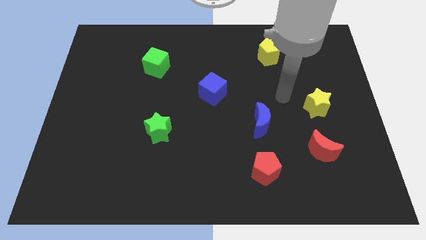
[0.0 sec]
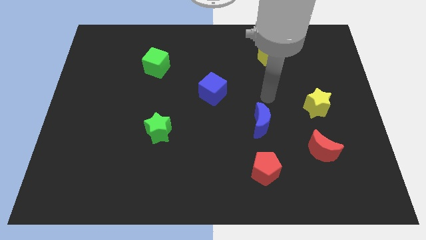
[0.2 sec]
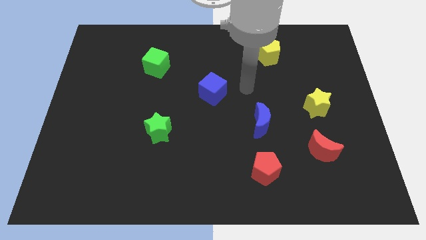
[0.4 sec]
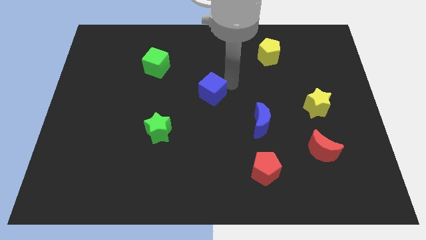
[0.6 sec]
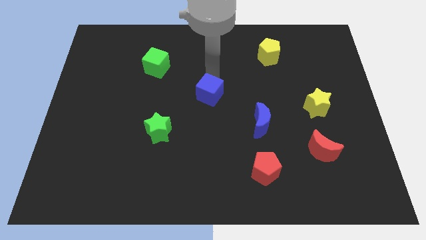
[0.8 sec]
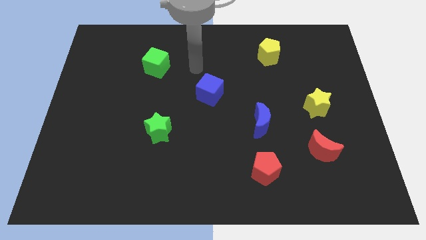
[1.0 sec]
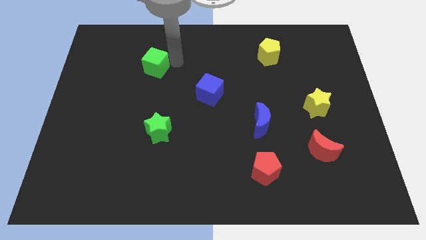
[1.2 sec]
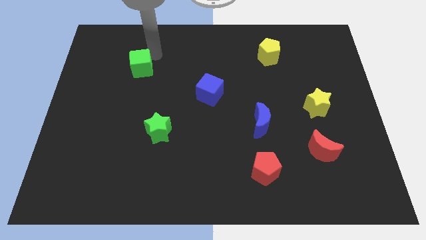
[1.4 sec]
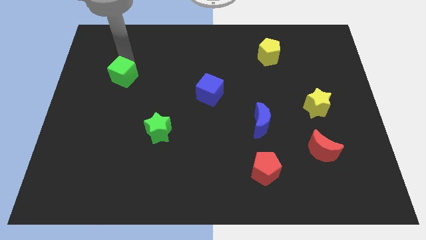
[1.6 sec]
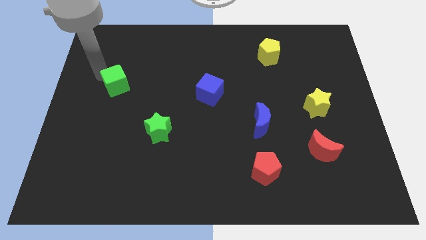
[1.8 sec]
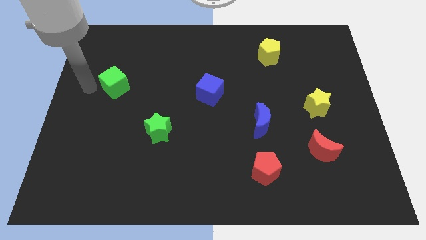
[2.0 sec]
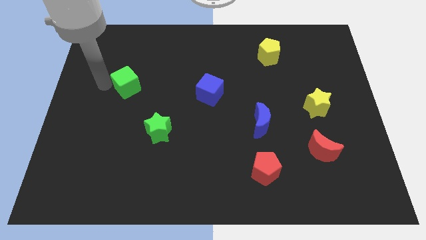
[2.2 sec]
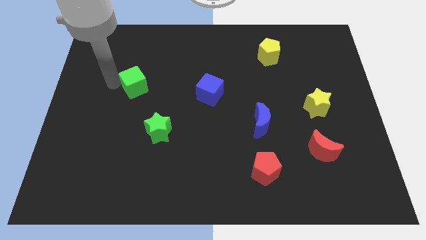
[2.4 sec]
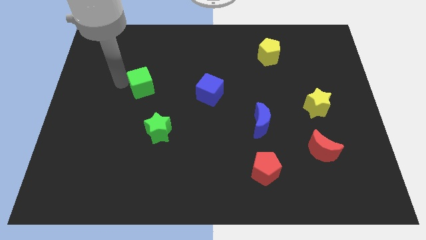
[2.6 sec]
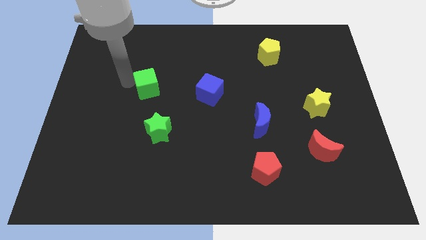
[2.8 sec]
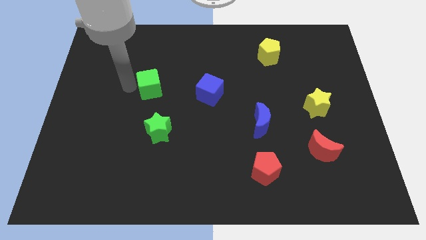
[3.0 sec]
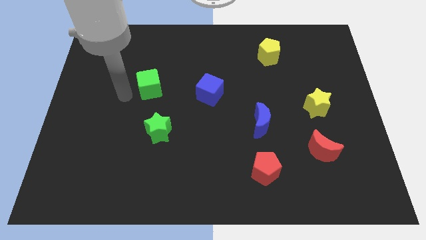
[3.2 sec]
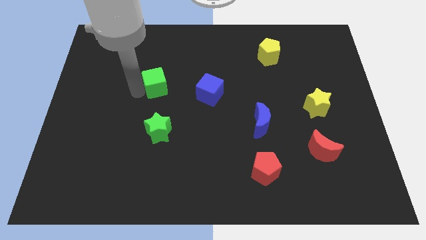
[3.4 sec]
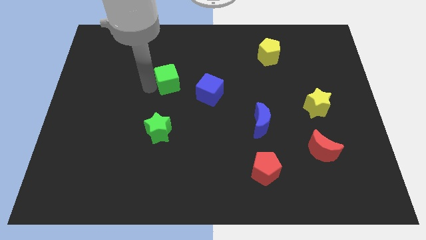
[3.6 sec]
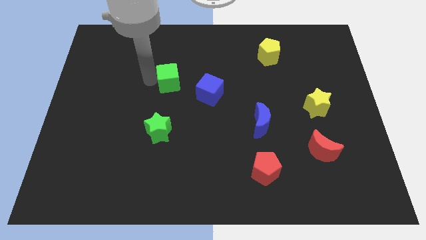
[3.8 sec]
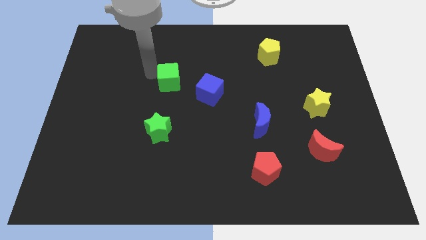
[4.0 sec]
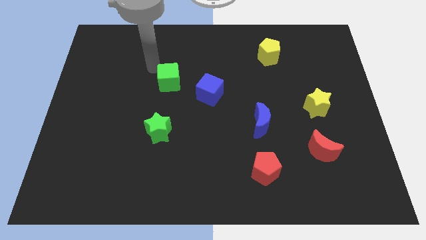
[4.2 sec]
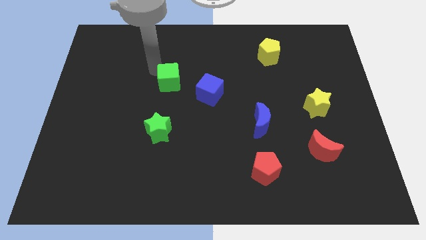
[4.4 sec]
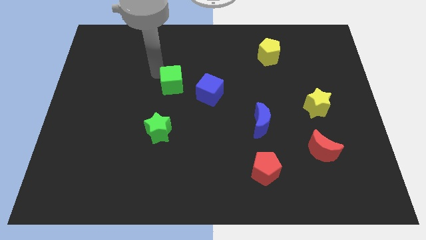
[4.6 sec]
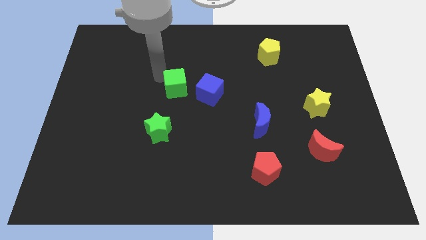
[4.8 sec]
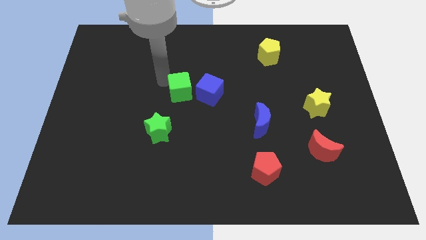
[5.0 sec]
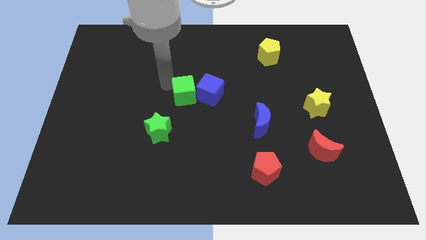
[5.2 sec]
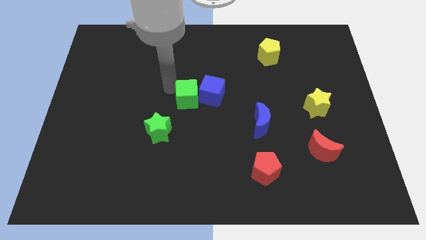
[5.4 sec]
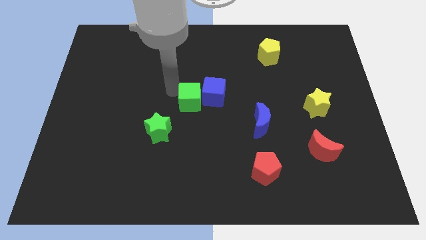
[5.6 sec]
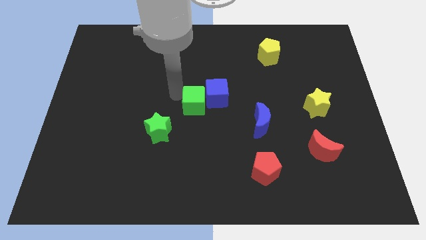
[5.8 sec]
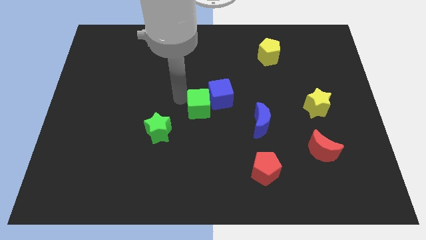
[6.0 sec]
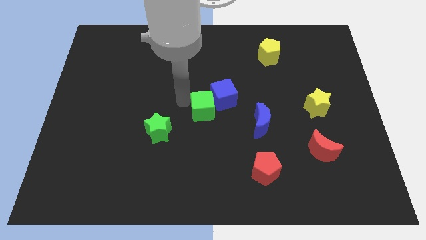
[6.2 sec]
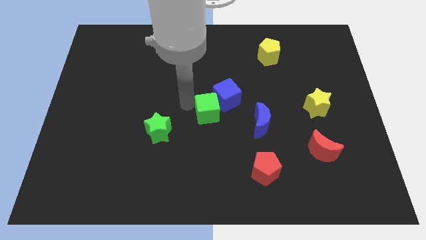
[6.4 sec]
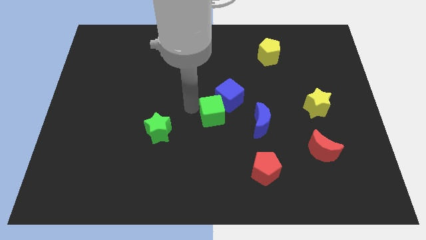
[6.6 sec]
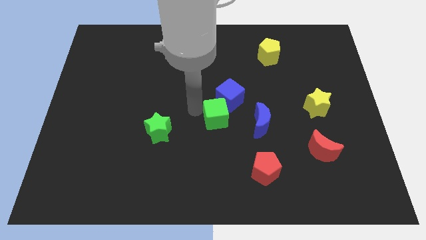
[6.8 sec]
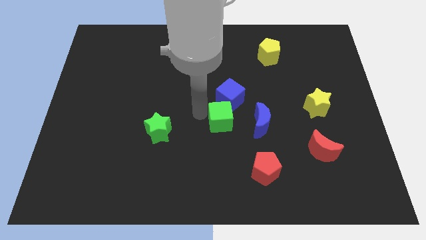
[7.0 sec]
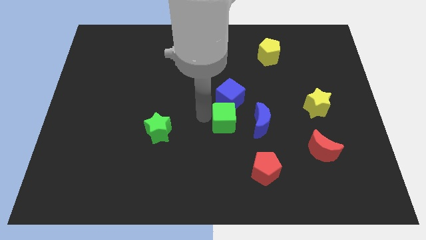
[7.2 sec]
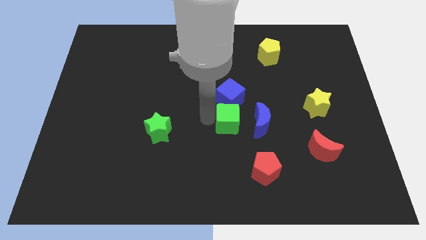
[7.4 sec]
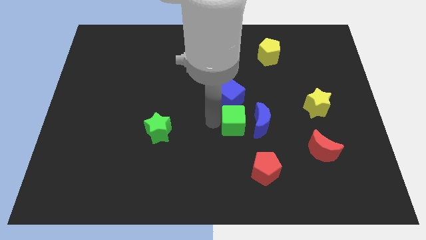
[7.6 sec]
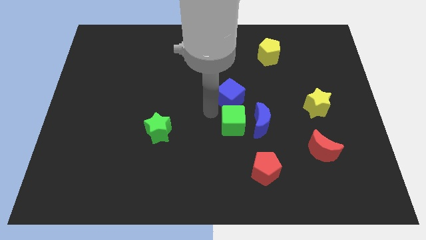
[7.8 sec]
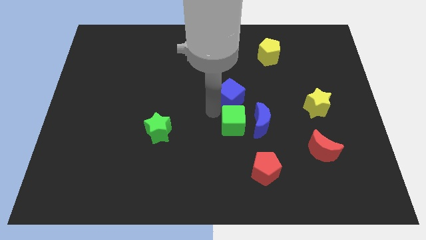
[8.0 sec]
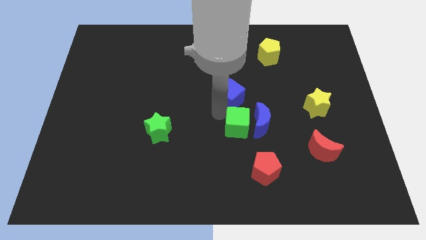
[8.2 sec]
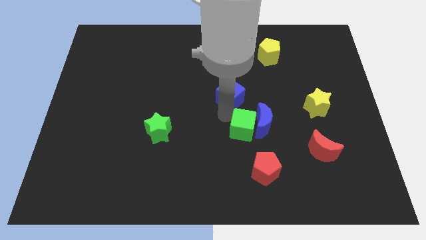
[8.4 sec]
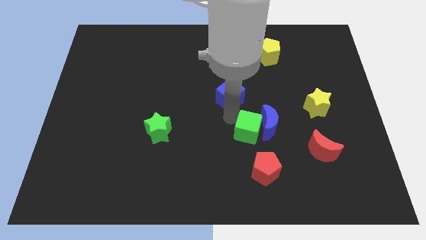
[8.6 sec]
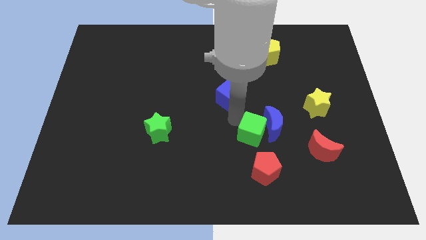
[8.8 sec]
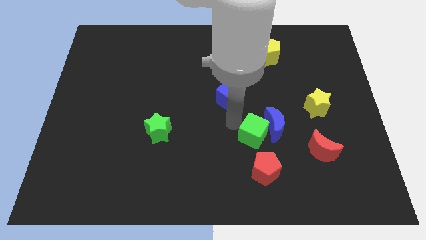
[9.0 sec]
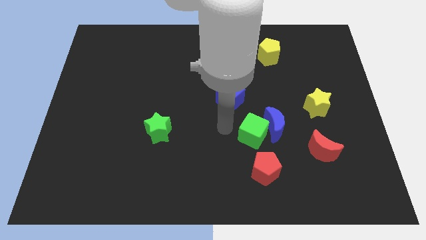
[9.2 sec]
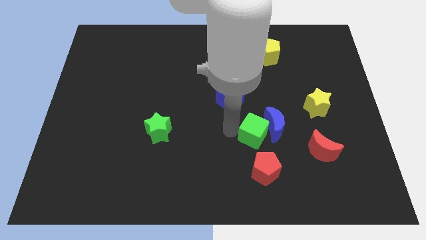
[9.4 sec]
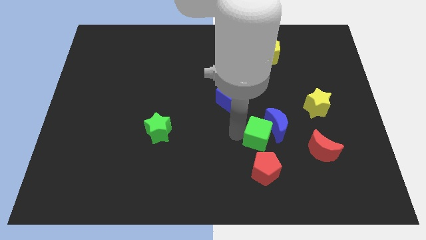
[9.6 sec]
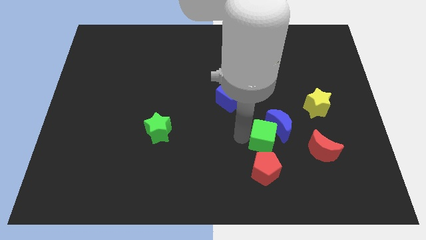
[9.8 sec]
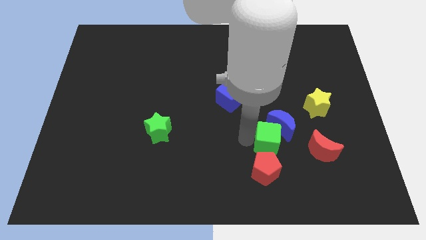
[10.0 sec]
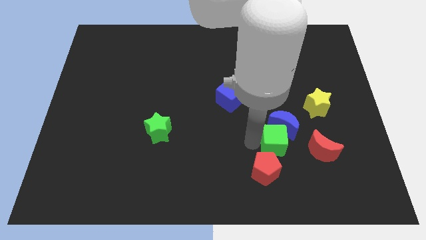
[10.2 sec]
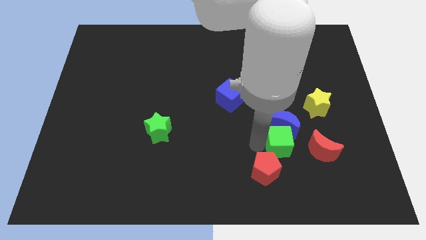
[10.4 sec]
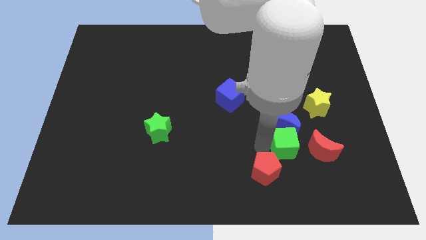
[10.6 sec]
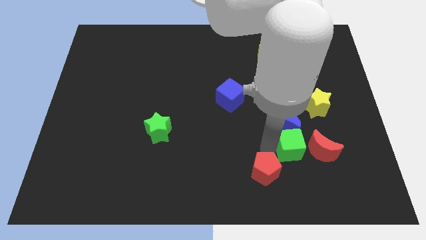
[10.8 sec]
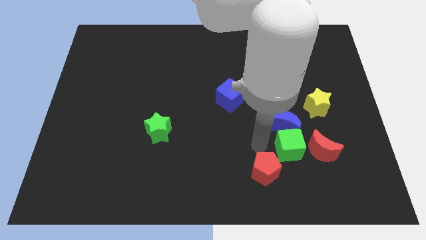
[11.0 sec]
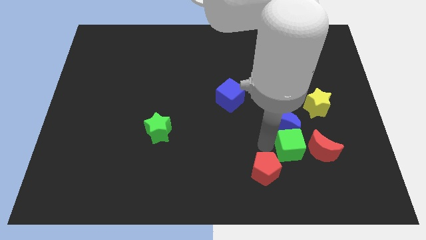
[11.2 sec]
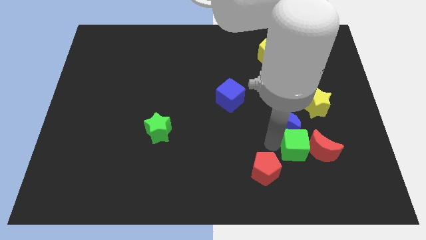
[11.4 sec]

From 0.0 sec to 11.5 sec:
slide the green cube close to the red moon

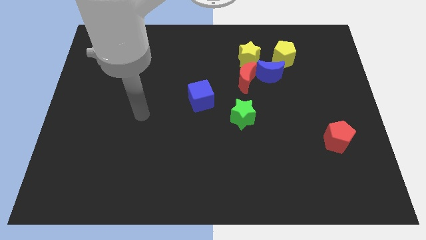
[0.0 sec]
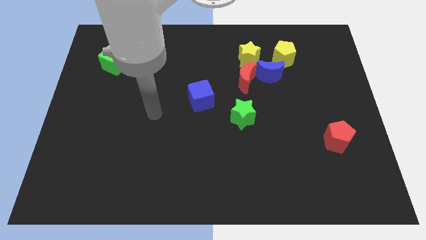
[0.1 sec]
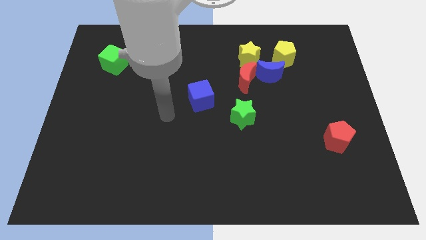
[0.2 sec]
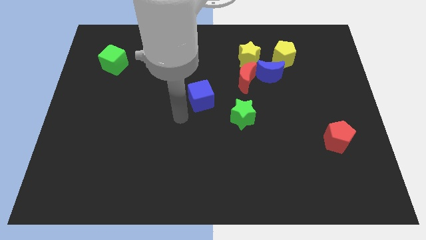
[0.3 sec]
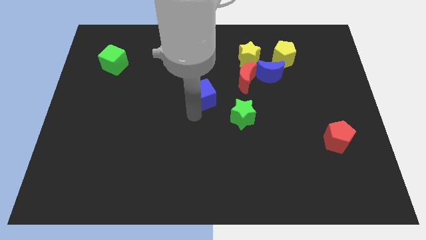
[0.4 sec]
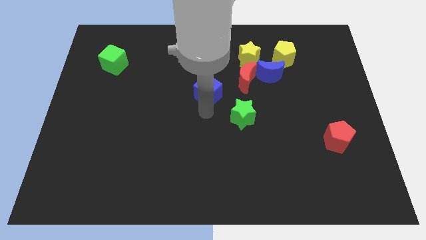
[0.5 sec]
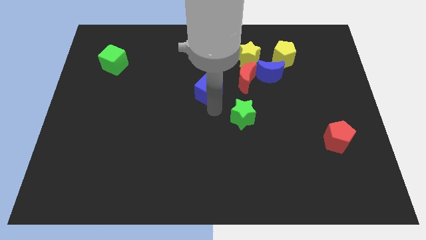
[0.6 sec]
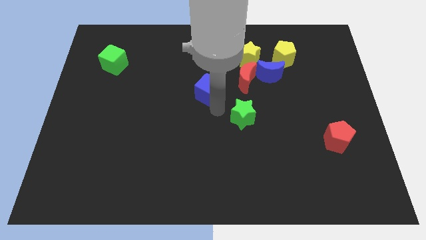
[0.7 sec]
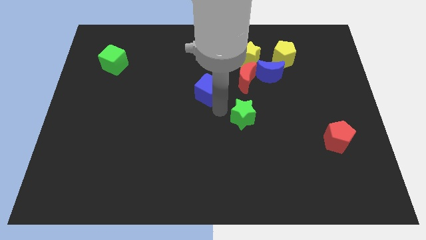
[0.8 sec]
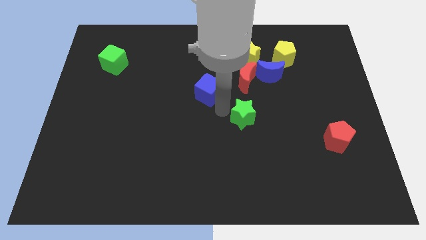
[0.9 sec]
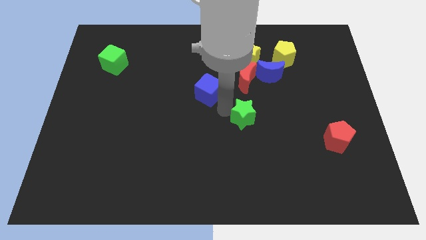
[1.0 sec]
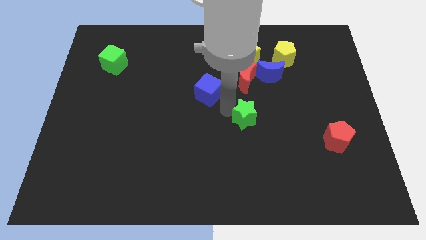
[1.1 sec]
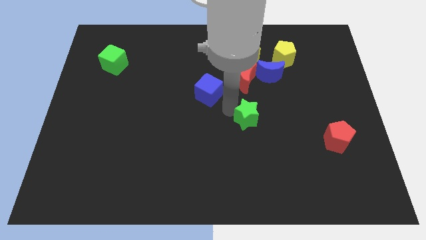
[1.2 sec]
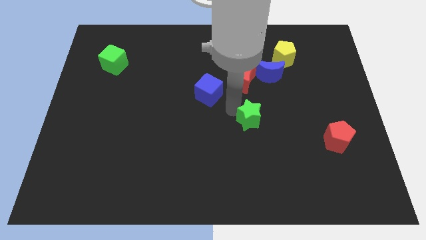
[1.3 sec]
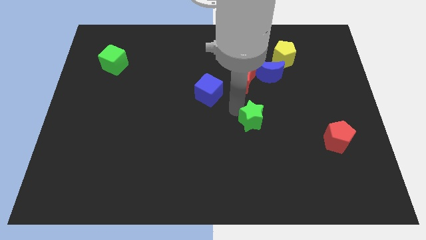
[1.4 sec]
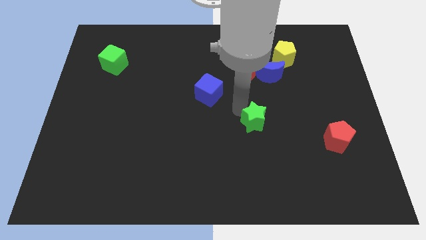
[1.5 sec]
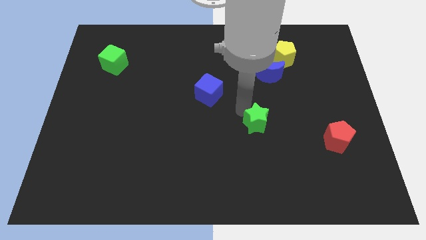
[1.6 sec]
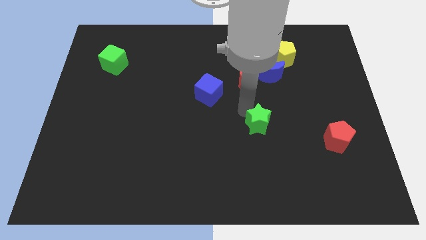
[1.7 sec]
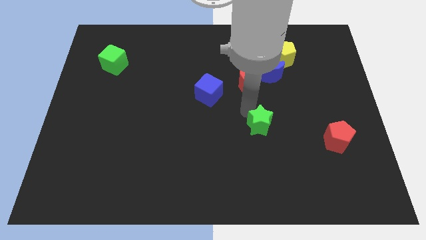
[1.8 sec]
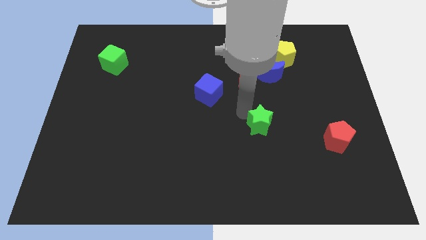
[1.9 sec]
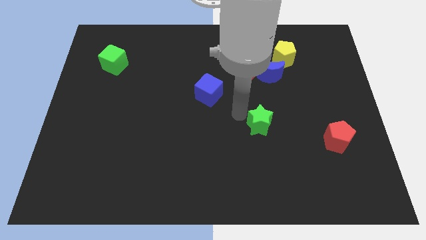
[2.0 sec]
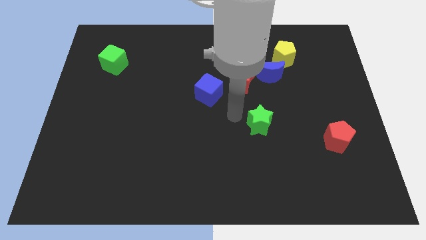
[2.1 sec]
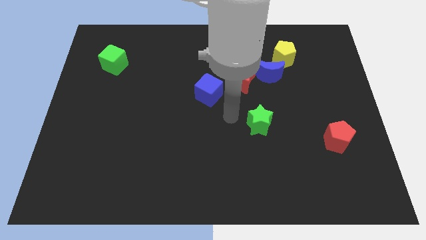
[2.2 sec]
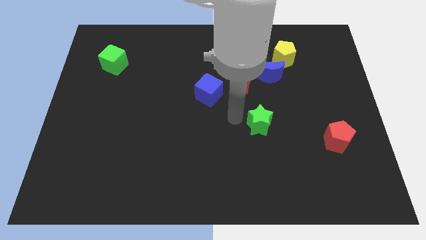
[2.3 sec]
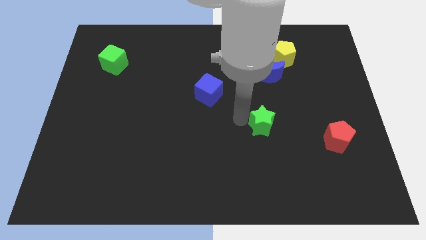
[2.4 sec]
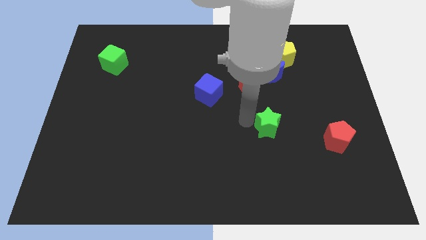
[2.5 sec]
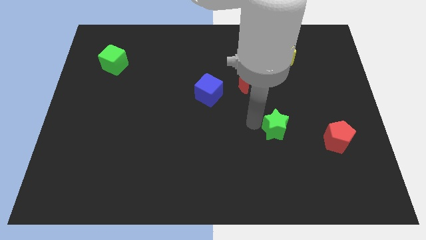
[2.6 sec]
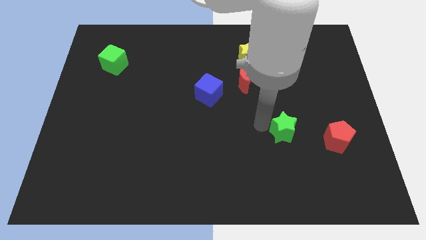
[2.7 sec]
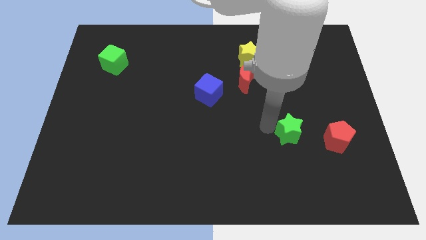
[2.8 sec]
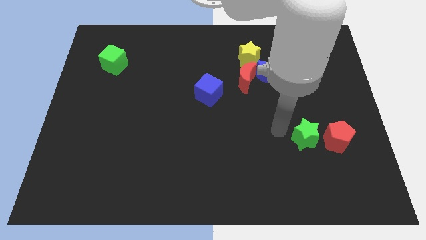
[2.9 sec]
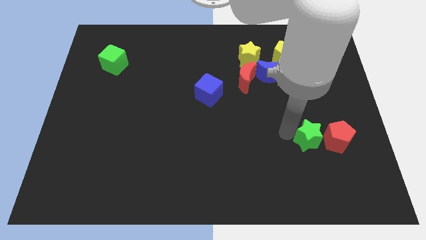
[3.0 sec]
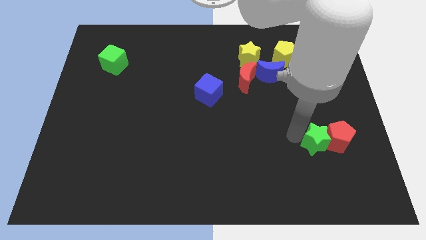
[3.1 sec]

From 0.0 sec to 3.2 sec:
put the green star towards the red pentagon
